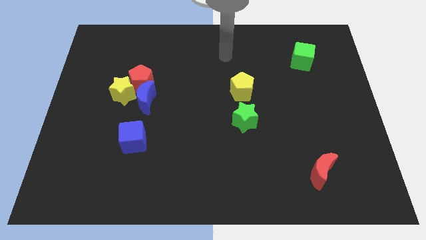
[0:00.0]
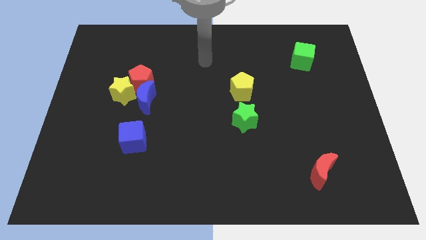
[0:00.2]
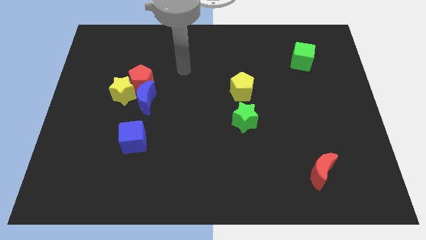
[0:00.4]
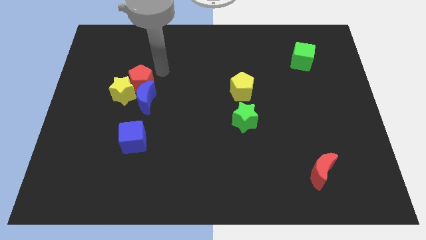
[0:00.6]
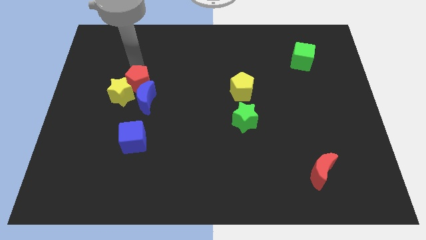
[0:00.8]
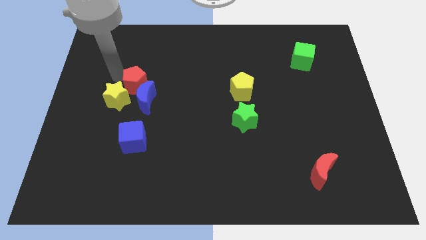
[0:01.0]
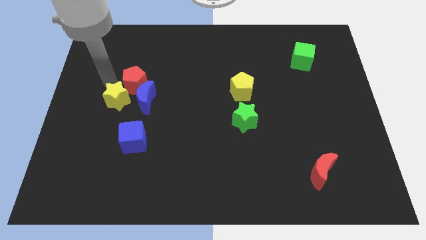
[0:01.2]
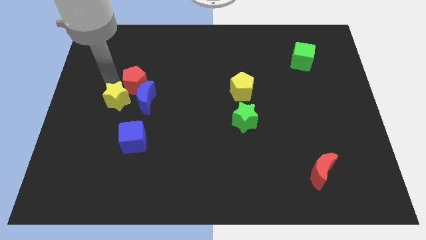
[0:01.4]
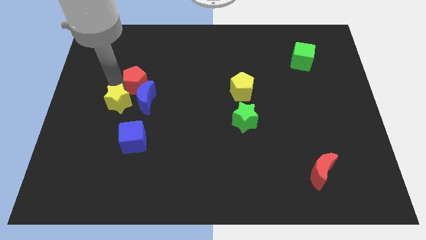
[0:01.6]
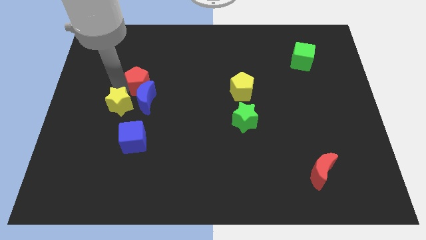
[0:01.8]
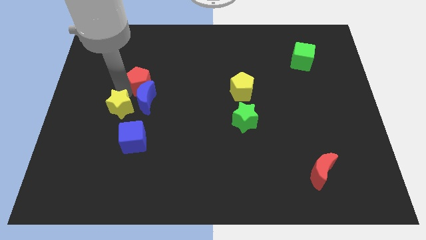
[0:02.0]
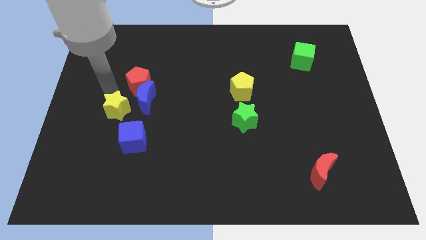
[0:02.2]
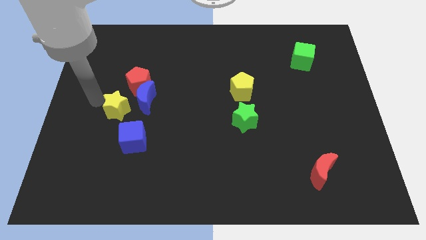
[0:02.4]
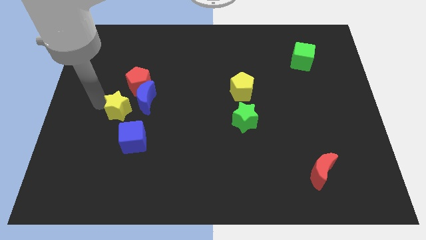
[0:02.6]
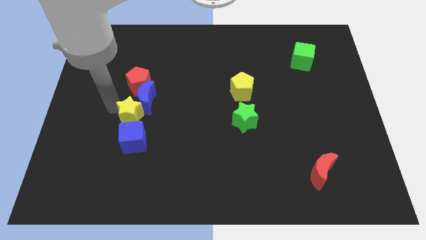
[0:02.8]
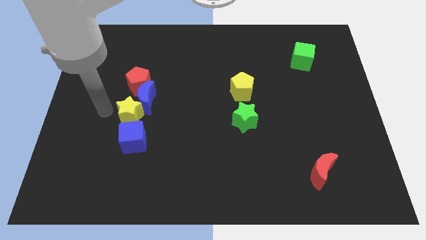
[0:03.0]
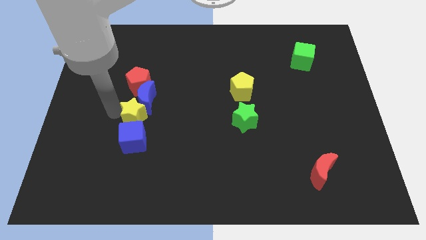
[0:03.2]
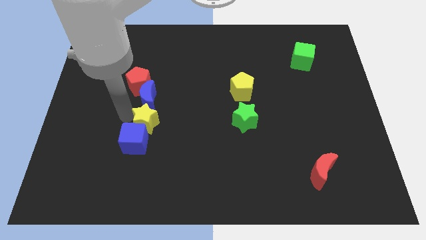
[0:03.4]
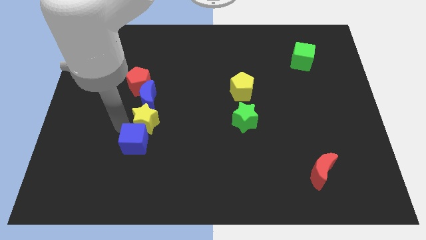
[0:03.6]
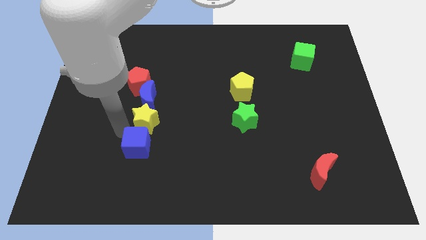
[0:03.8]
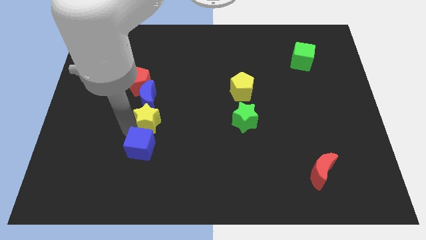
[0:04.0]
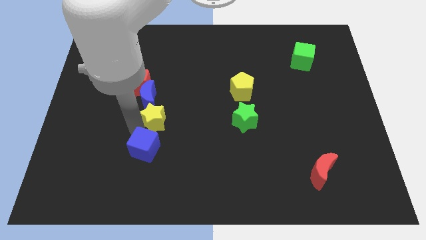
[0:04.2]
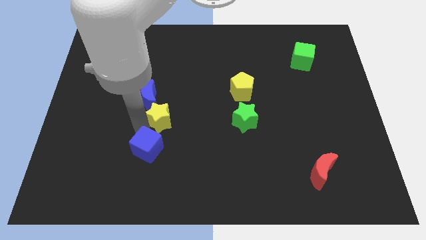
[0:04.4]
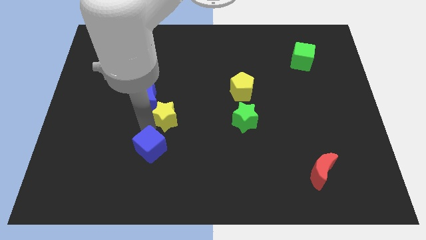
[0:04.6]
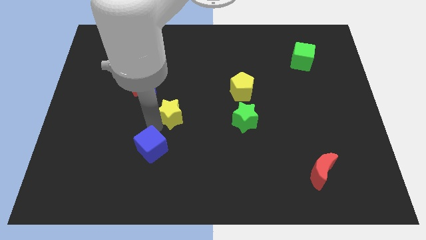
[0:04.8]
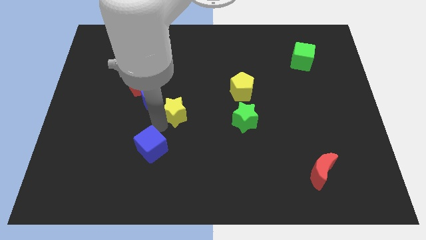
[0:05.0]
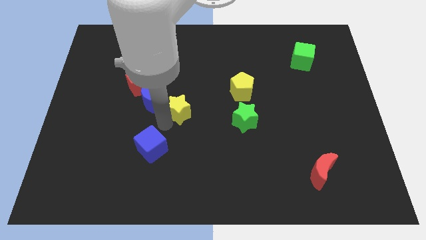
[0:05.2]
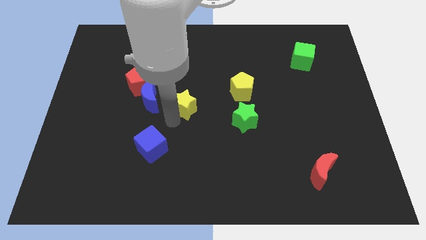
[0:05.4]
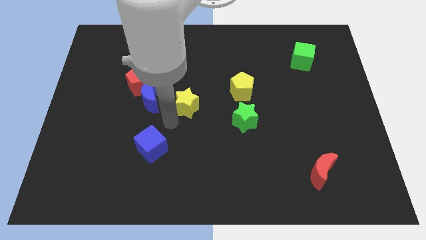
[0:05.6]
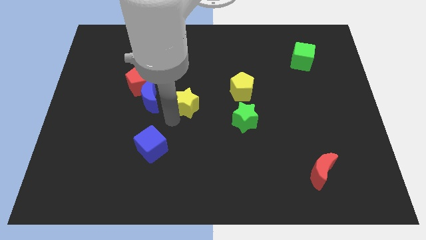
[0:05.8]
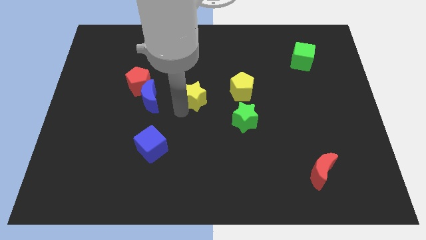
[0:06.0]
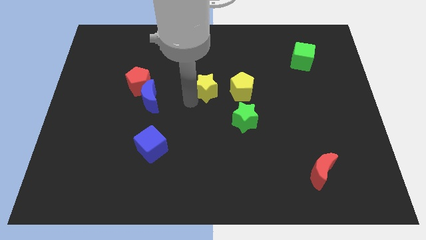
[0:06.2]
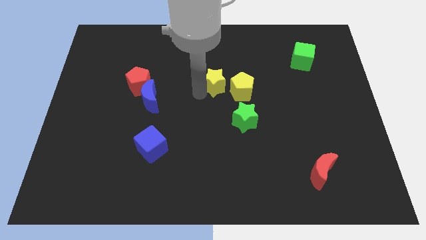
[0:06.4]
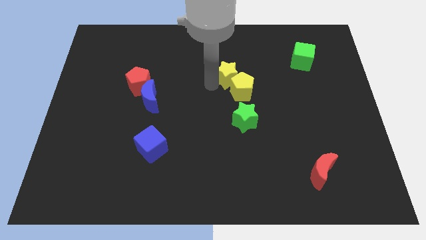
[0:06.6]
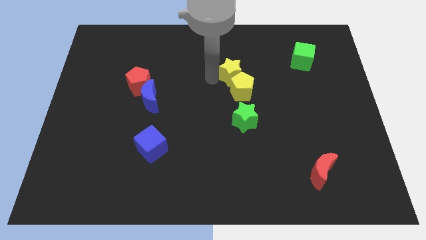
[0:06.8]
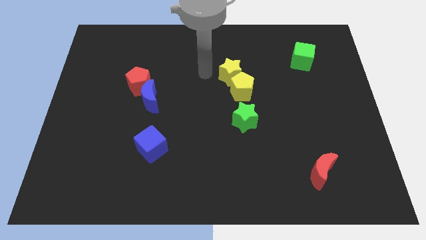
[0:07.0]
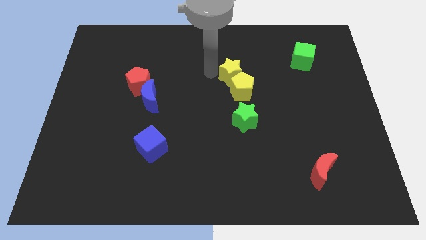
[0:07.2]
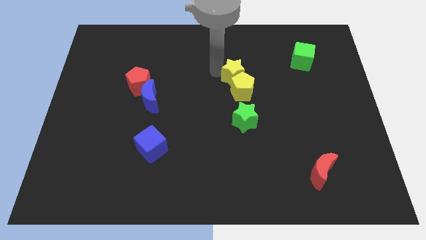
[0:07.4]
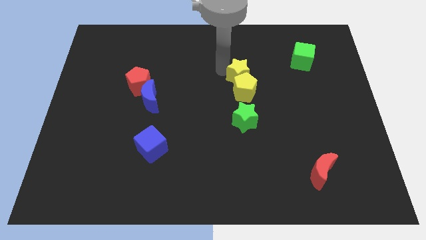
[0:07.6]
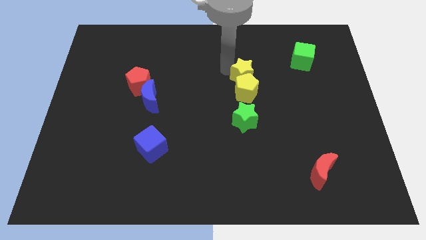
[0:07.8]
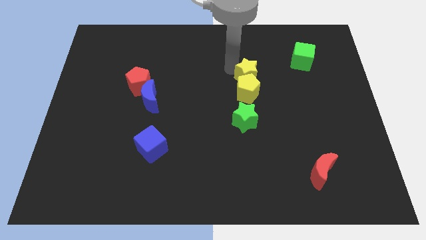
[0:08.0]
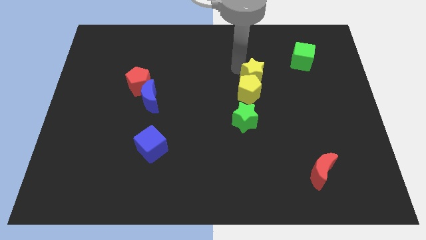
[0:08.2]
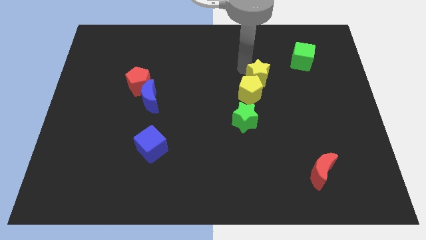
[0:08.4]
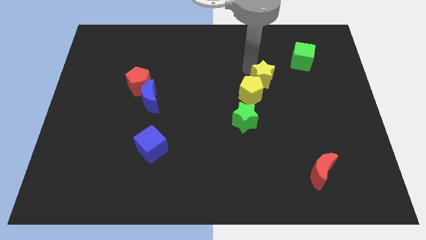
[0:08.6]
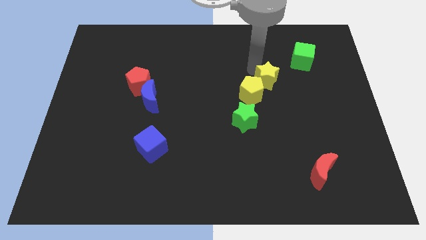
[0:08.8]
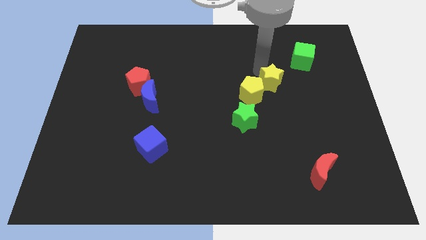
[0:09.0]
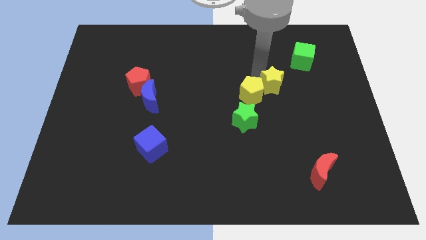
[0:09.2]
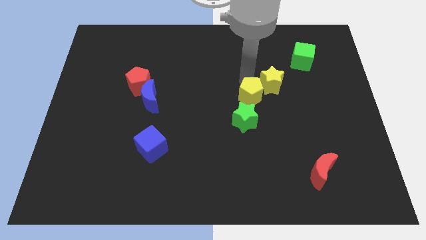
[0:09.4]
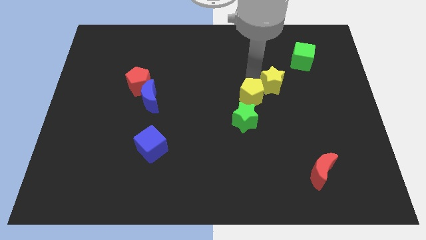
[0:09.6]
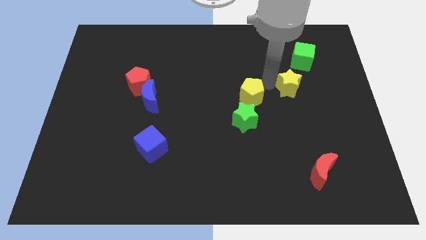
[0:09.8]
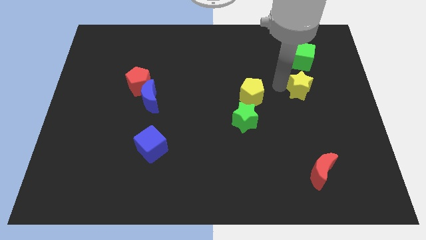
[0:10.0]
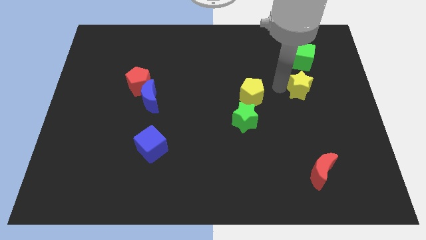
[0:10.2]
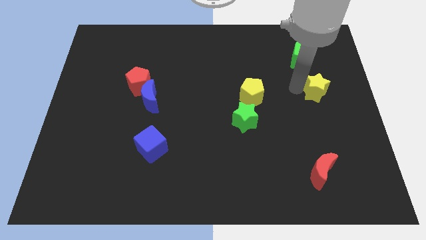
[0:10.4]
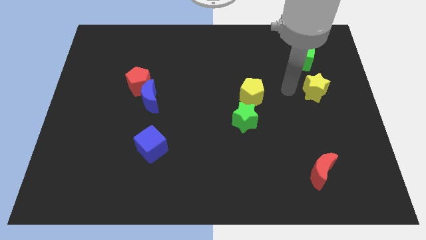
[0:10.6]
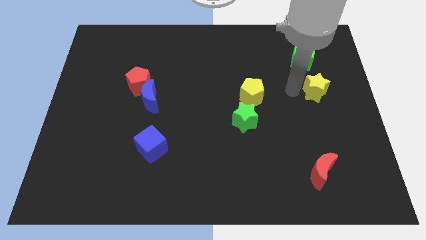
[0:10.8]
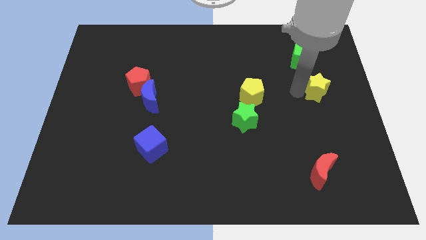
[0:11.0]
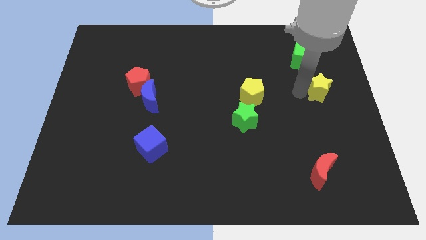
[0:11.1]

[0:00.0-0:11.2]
slide the yellow star to the center right
